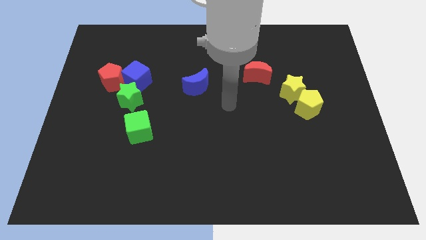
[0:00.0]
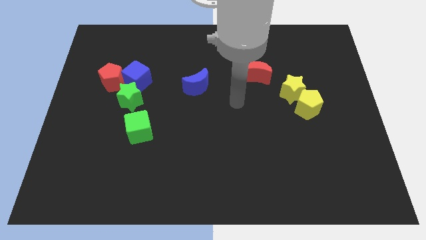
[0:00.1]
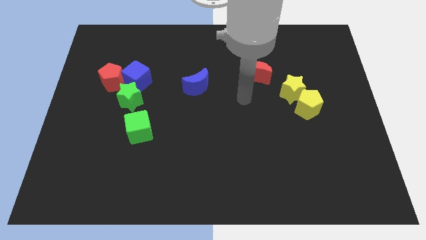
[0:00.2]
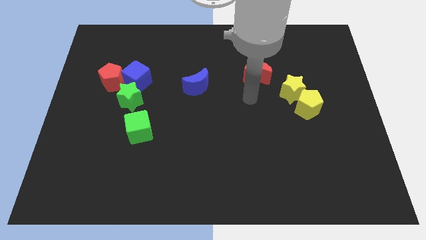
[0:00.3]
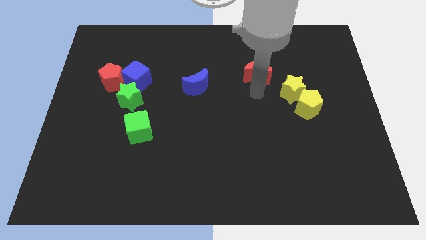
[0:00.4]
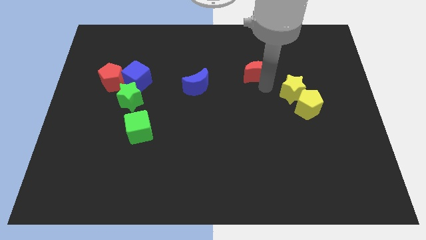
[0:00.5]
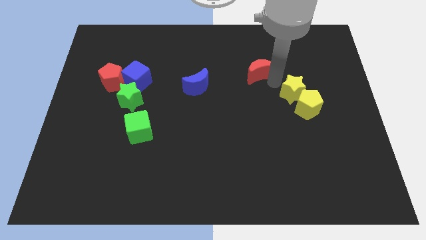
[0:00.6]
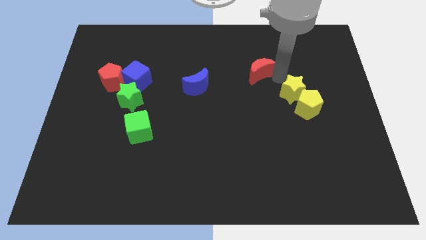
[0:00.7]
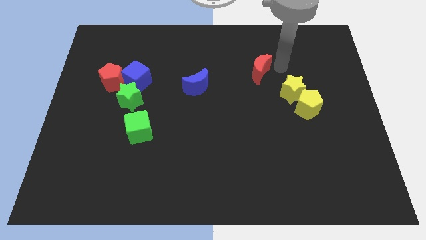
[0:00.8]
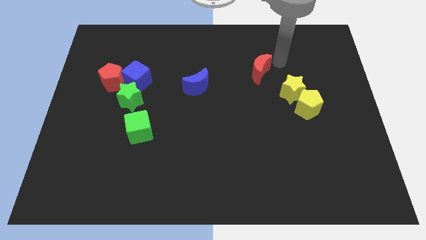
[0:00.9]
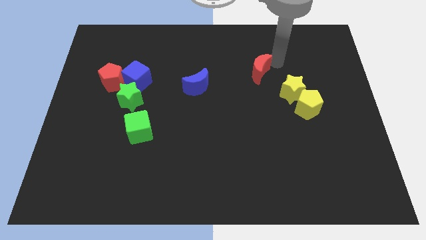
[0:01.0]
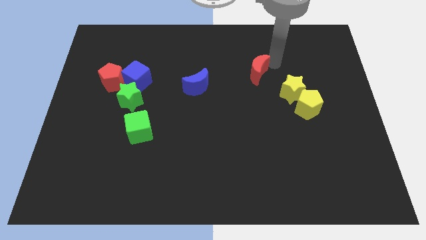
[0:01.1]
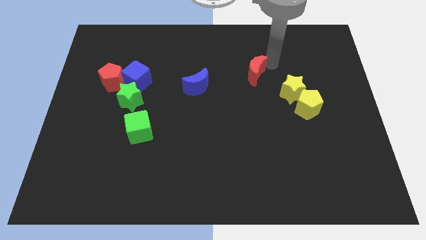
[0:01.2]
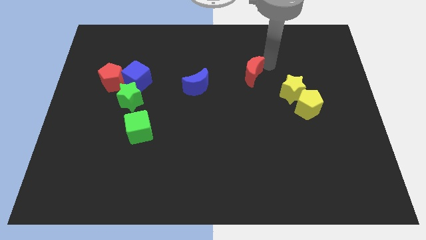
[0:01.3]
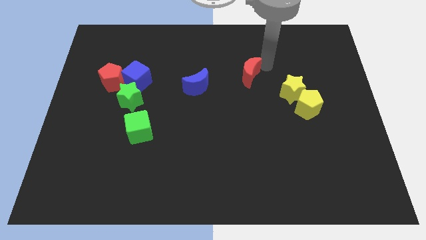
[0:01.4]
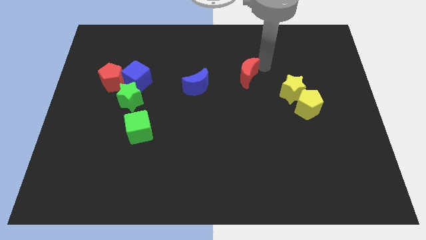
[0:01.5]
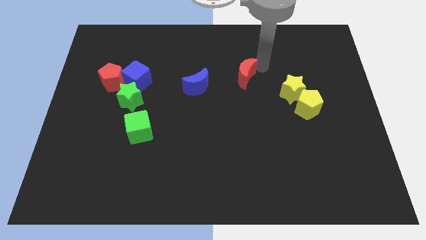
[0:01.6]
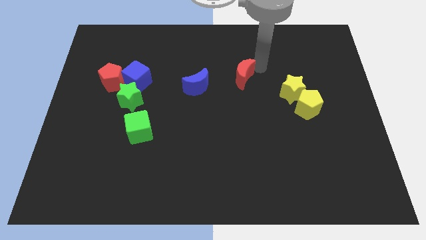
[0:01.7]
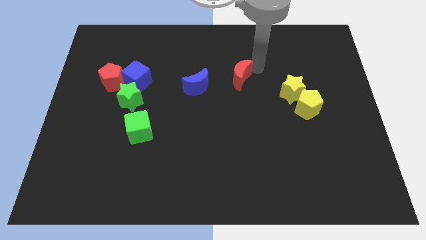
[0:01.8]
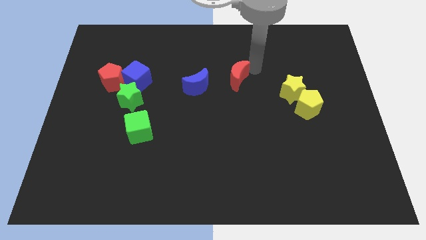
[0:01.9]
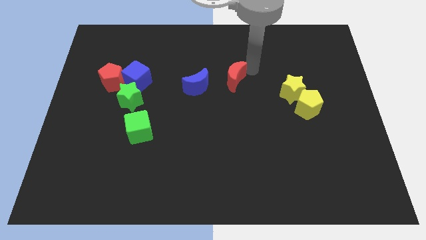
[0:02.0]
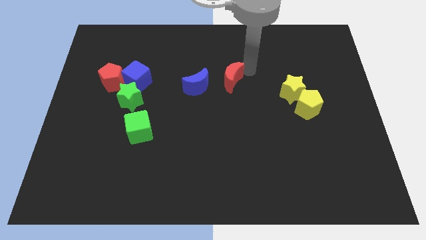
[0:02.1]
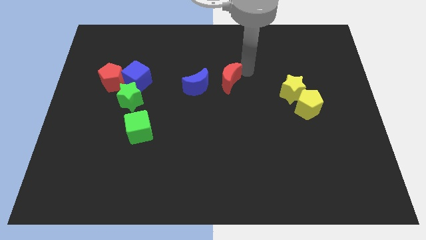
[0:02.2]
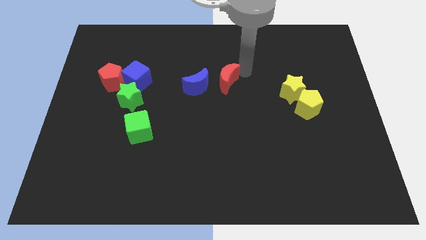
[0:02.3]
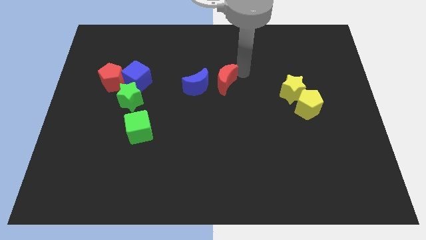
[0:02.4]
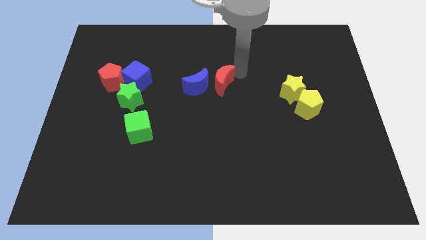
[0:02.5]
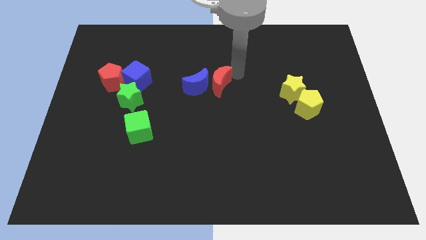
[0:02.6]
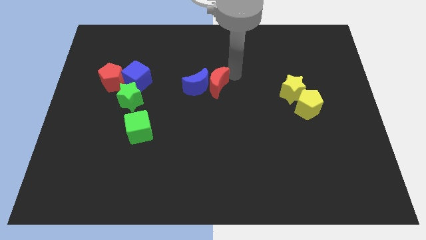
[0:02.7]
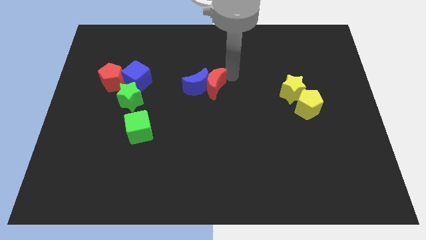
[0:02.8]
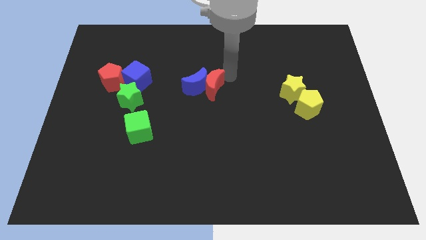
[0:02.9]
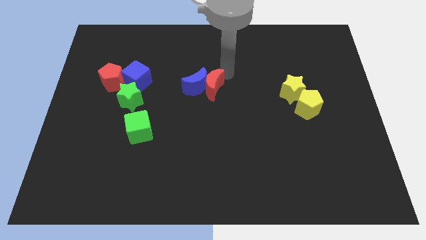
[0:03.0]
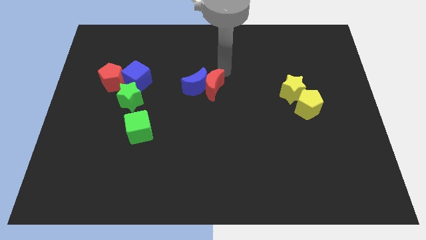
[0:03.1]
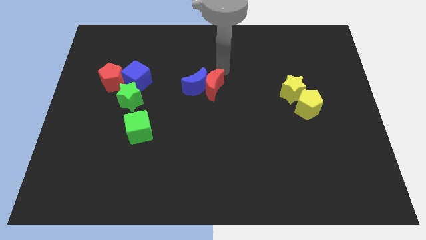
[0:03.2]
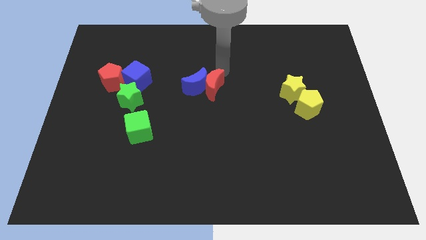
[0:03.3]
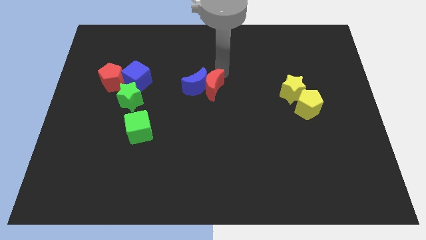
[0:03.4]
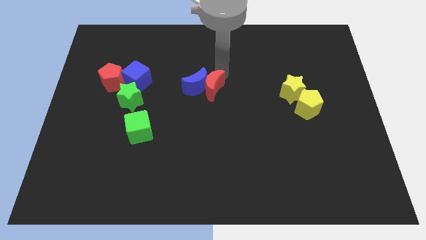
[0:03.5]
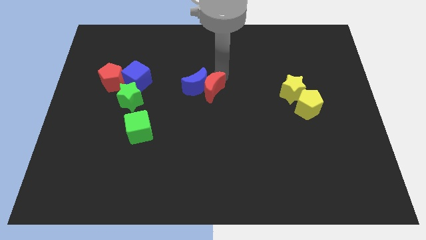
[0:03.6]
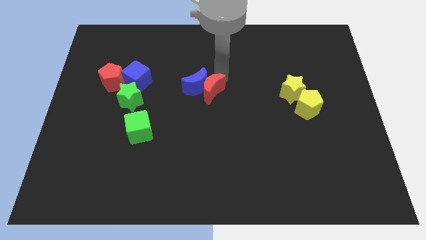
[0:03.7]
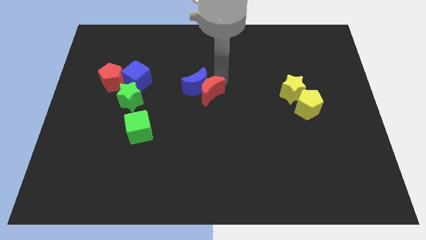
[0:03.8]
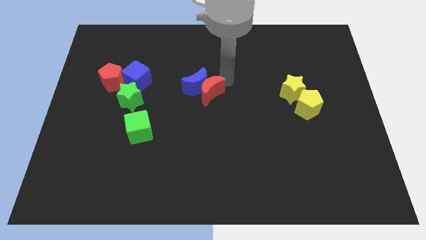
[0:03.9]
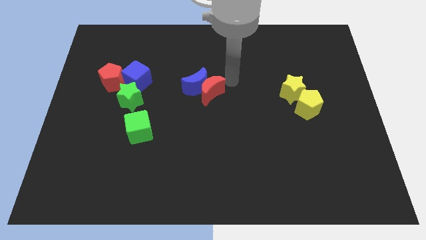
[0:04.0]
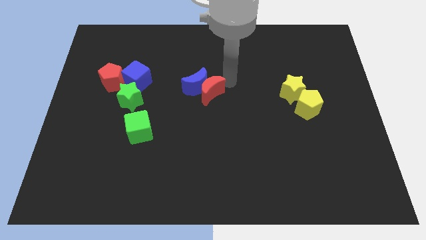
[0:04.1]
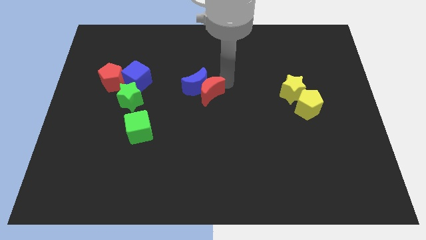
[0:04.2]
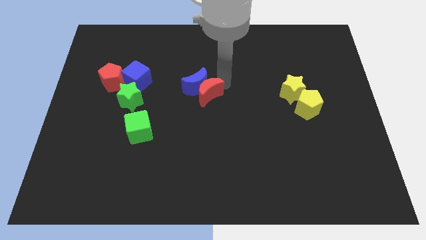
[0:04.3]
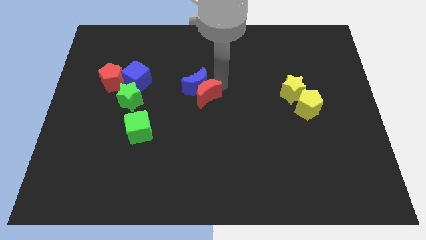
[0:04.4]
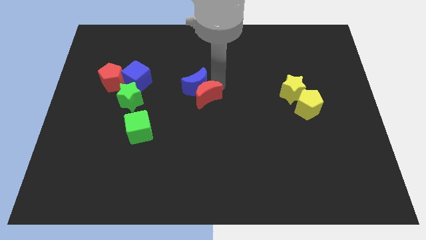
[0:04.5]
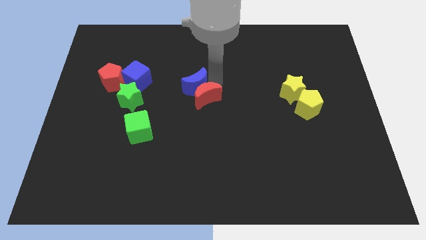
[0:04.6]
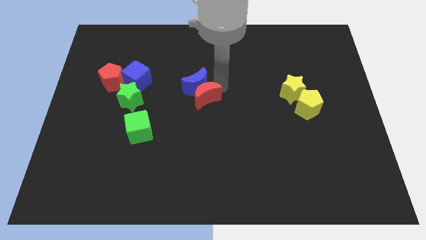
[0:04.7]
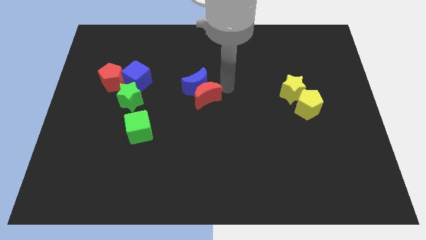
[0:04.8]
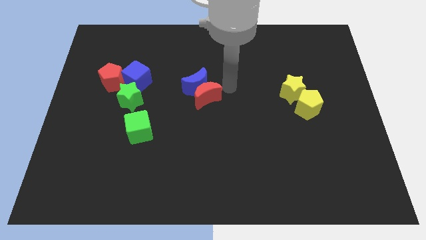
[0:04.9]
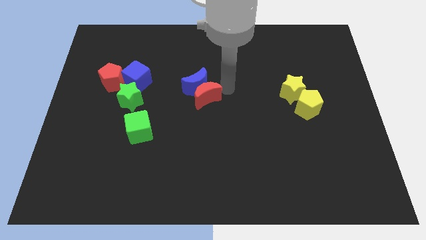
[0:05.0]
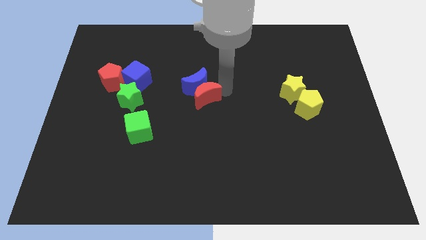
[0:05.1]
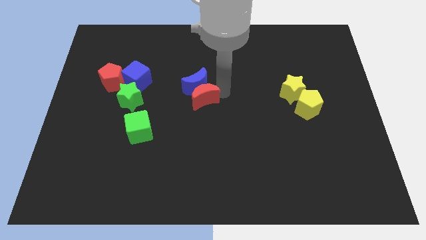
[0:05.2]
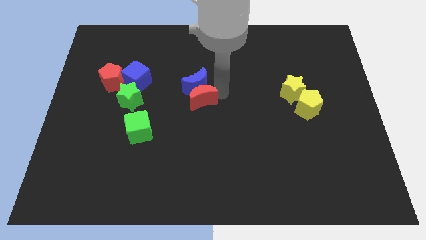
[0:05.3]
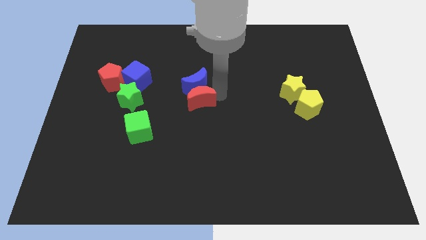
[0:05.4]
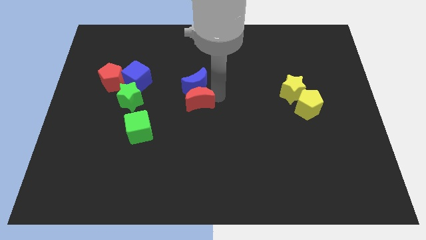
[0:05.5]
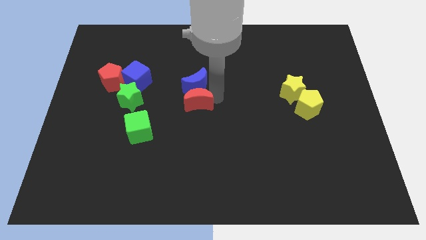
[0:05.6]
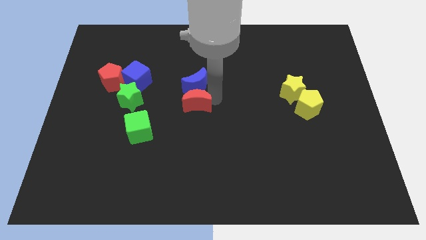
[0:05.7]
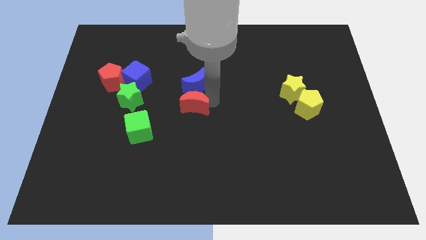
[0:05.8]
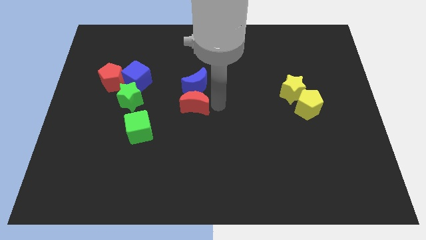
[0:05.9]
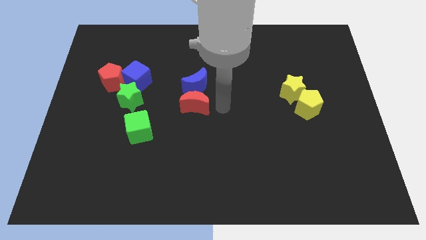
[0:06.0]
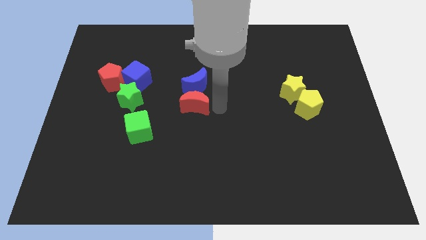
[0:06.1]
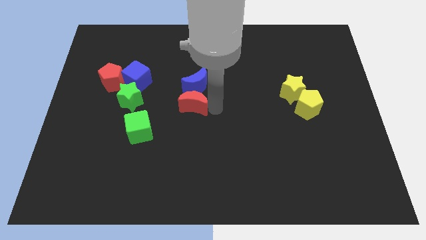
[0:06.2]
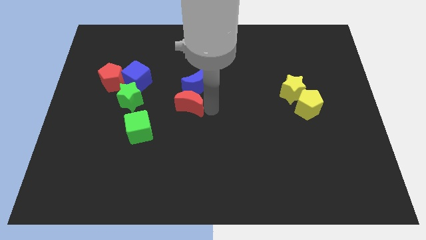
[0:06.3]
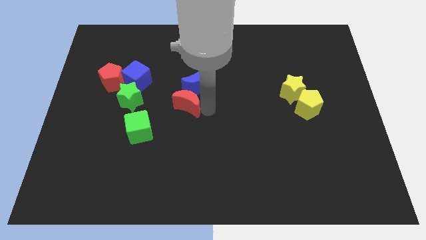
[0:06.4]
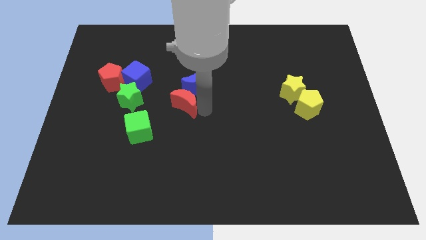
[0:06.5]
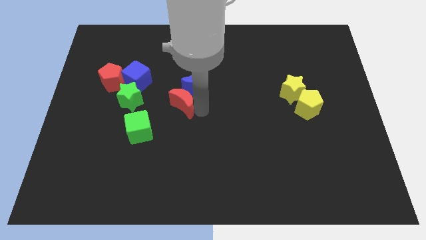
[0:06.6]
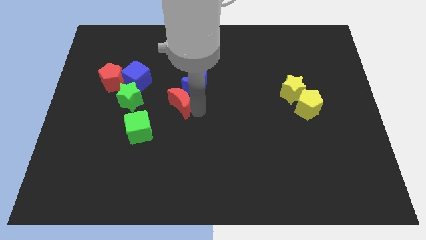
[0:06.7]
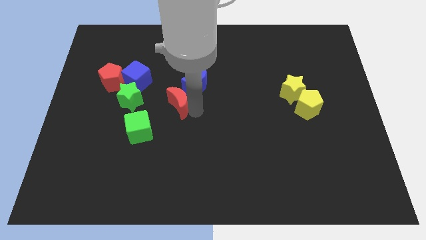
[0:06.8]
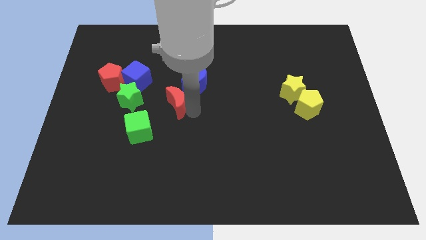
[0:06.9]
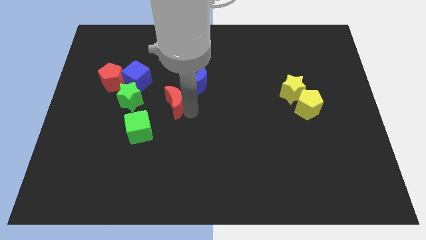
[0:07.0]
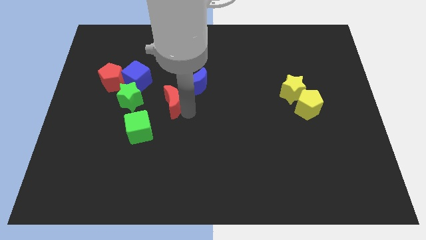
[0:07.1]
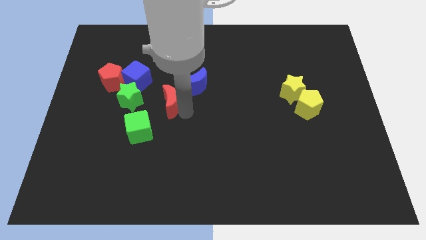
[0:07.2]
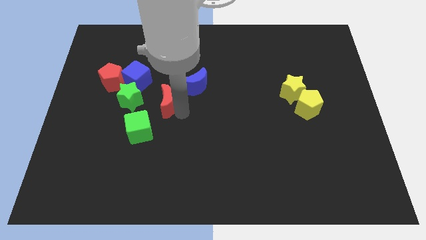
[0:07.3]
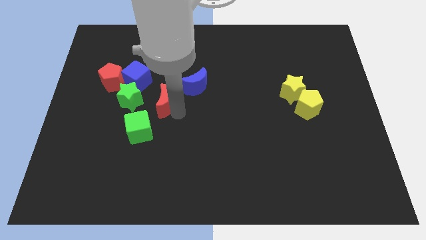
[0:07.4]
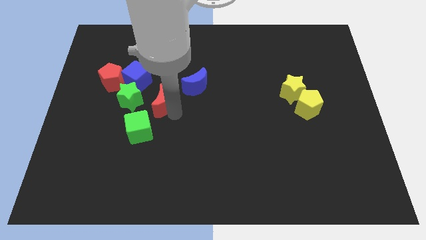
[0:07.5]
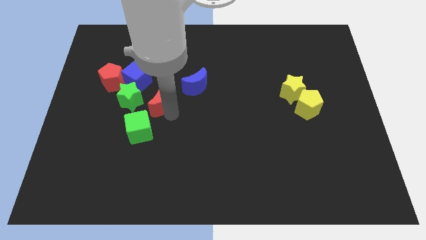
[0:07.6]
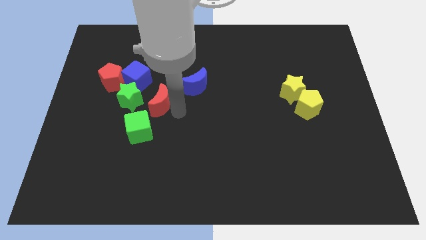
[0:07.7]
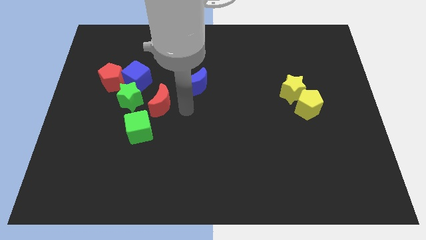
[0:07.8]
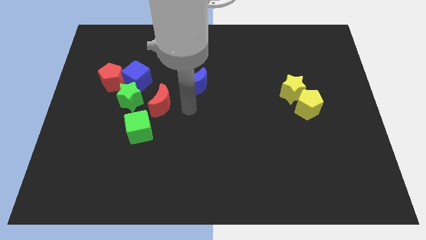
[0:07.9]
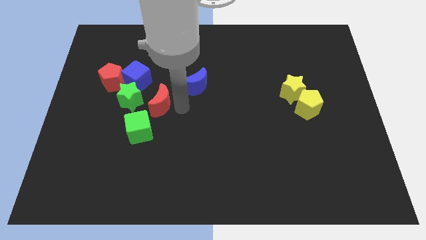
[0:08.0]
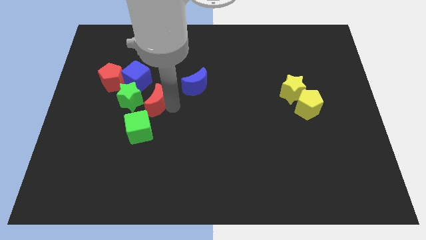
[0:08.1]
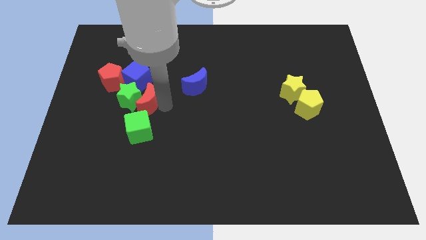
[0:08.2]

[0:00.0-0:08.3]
move the red moon next to the green star
